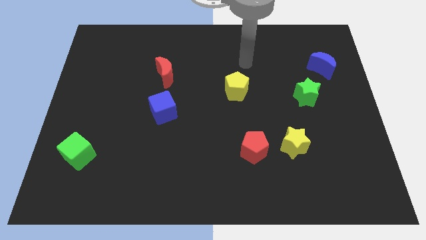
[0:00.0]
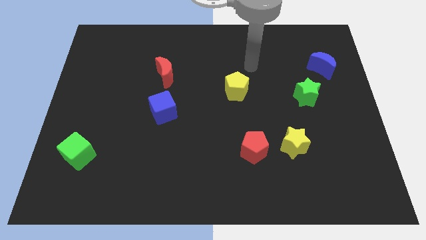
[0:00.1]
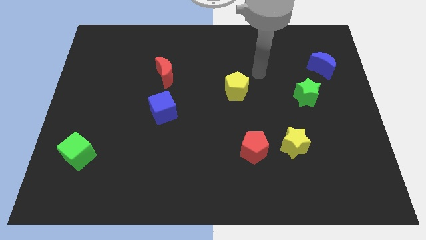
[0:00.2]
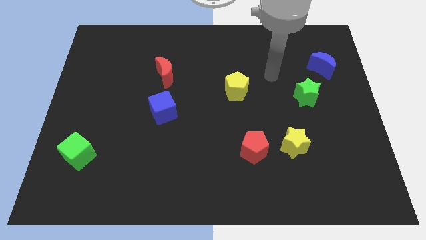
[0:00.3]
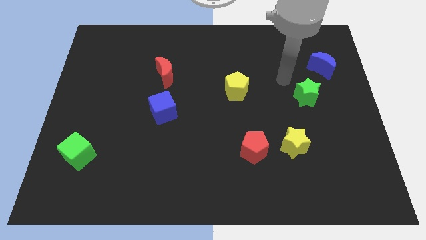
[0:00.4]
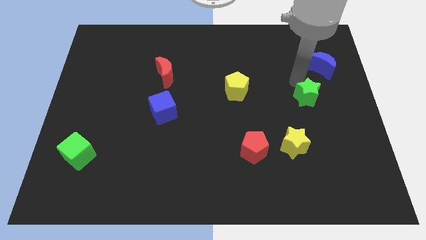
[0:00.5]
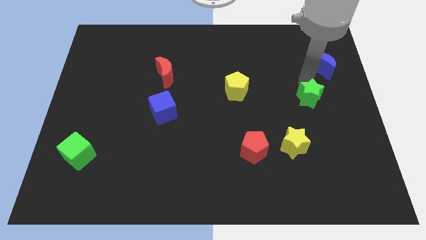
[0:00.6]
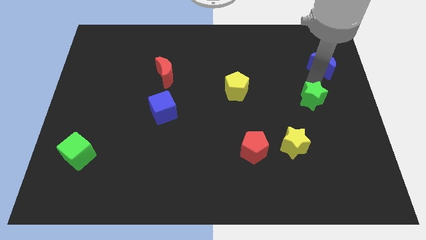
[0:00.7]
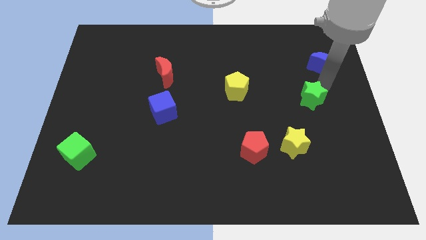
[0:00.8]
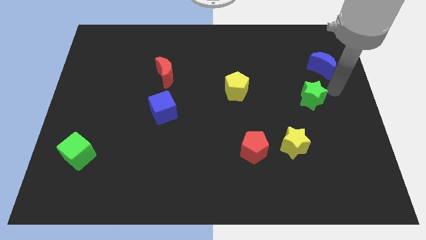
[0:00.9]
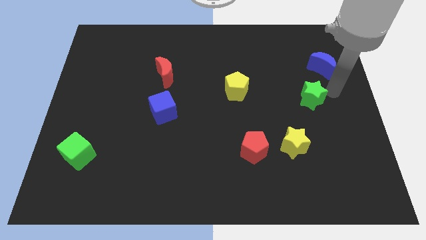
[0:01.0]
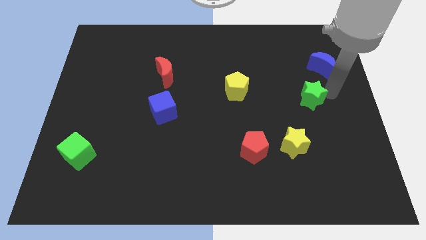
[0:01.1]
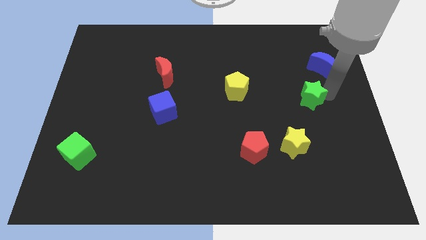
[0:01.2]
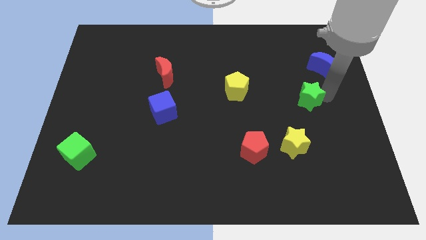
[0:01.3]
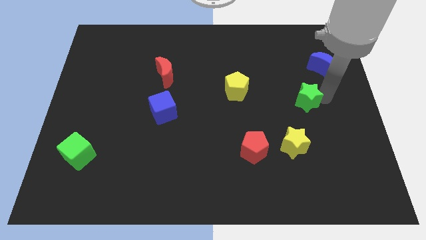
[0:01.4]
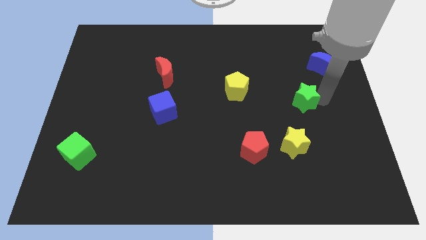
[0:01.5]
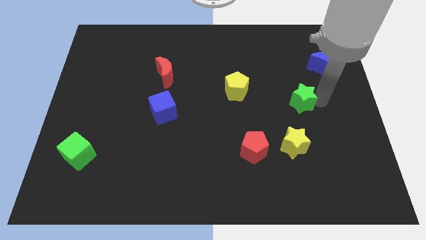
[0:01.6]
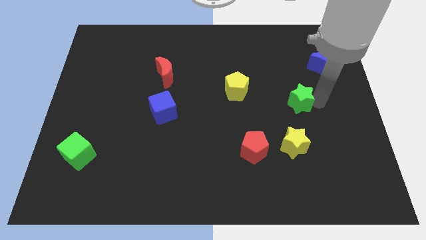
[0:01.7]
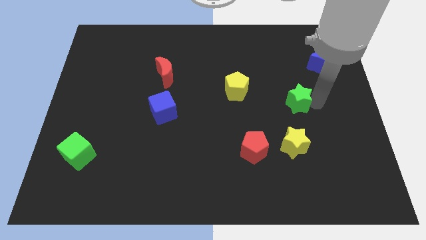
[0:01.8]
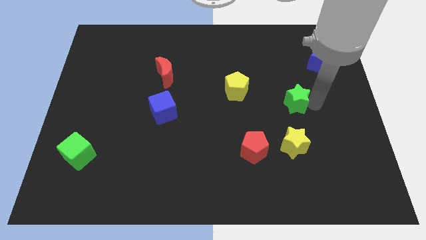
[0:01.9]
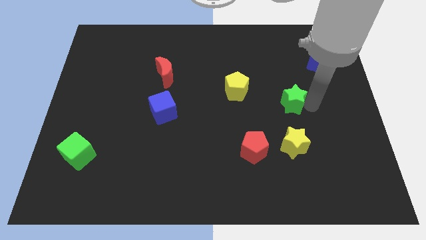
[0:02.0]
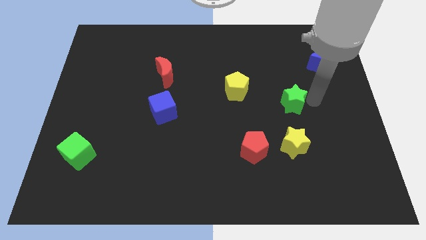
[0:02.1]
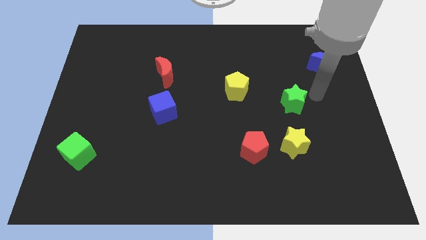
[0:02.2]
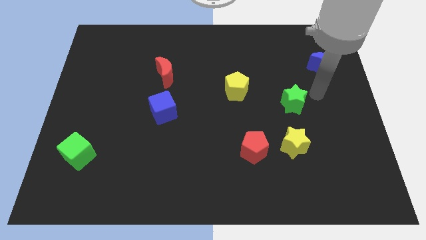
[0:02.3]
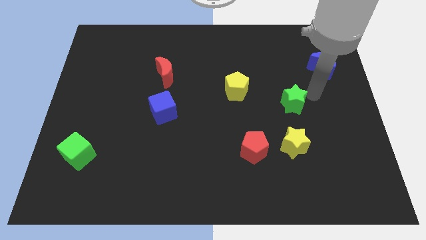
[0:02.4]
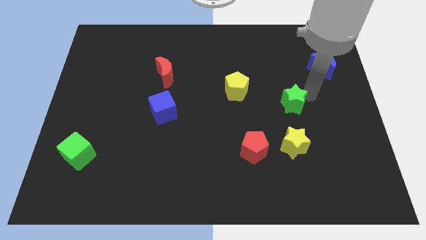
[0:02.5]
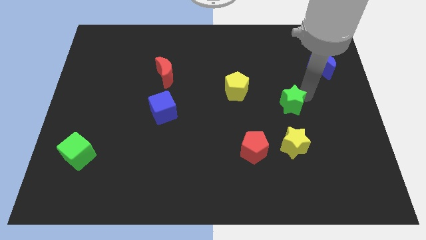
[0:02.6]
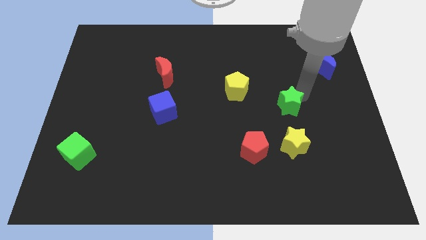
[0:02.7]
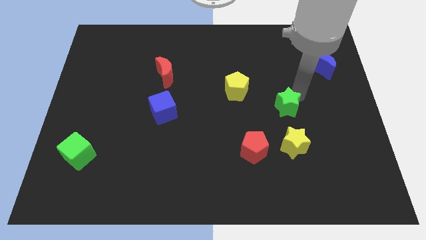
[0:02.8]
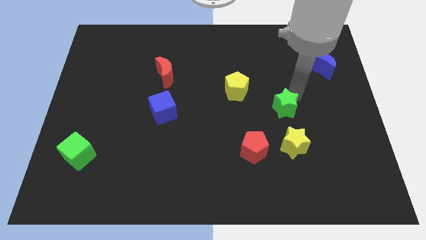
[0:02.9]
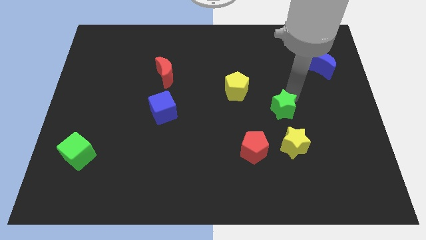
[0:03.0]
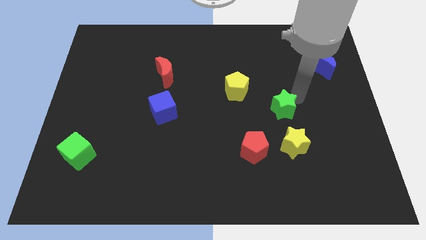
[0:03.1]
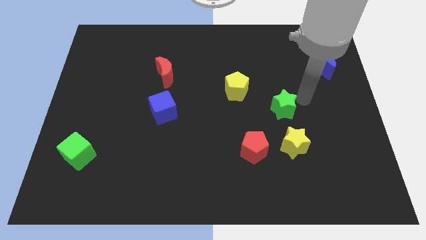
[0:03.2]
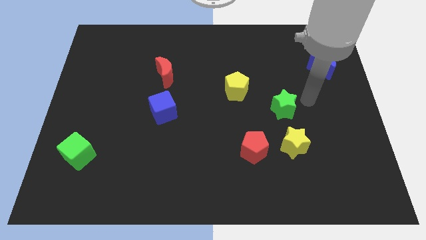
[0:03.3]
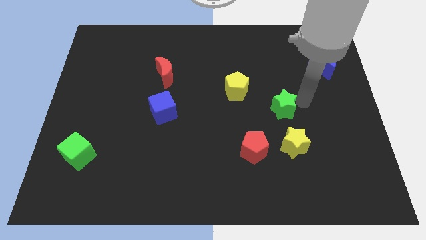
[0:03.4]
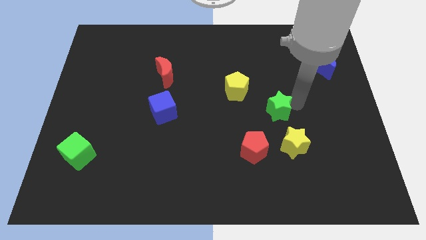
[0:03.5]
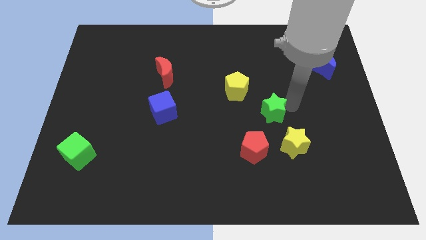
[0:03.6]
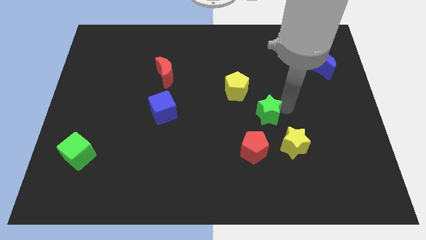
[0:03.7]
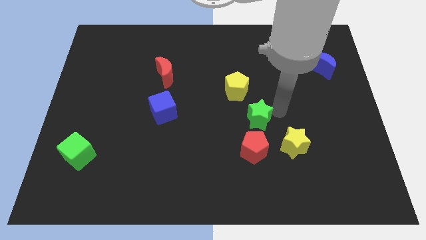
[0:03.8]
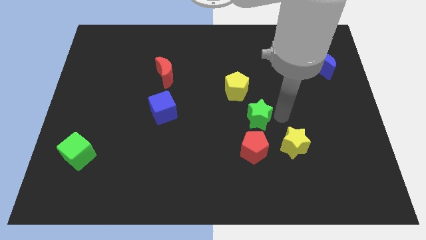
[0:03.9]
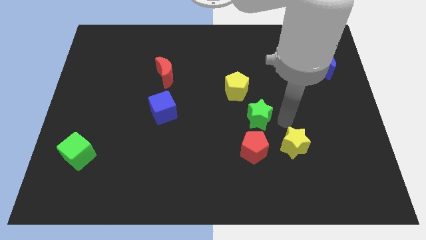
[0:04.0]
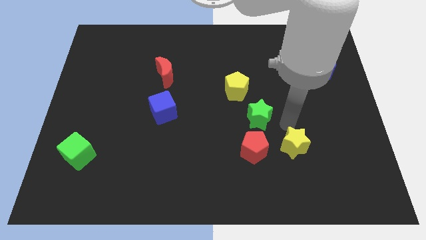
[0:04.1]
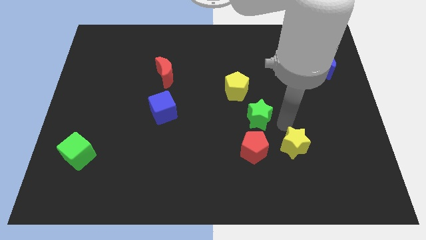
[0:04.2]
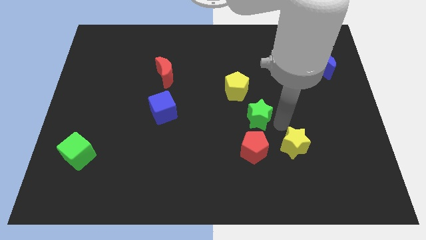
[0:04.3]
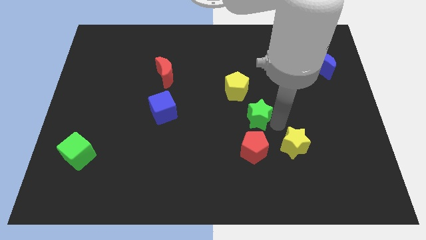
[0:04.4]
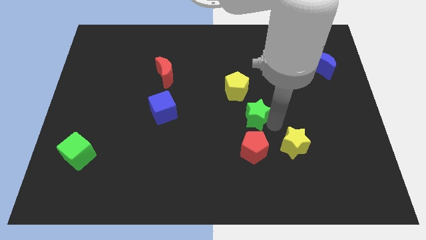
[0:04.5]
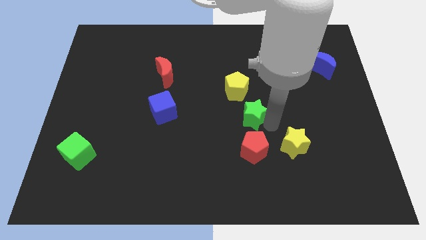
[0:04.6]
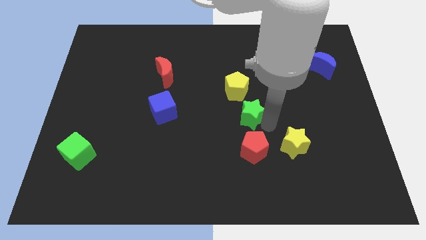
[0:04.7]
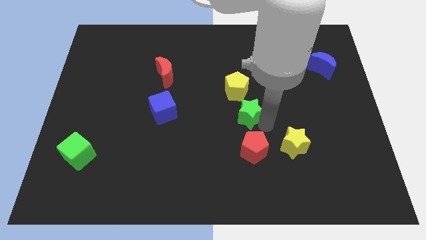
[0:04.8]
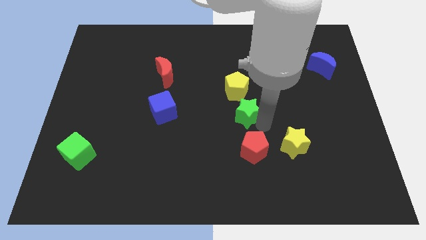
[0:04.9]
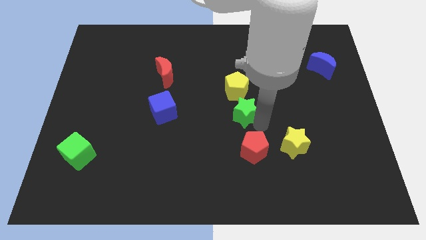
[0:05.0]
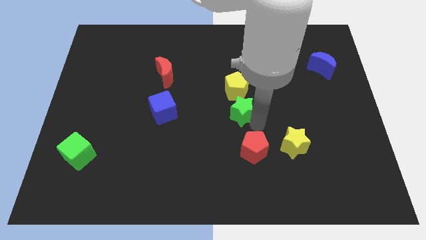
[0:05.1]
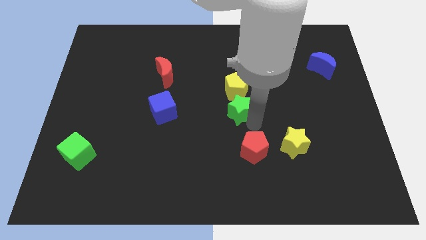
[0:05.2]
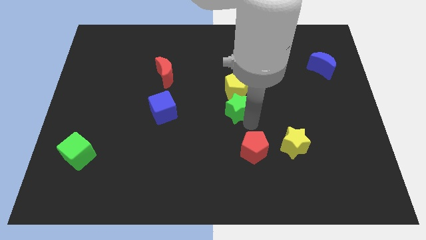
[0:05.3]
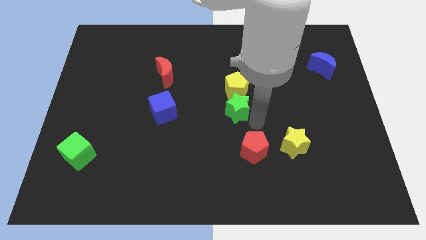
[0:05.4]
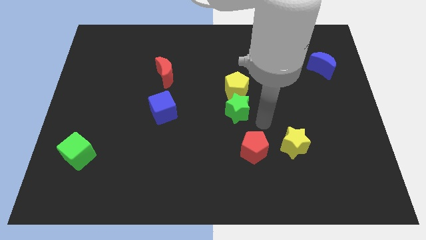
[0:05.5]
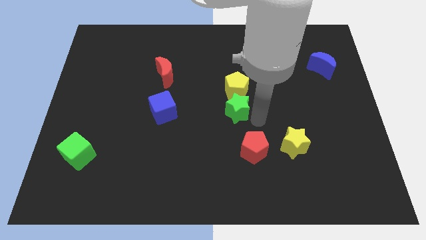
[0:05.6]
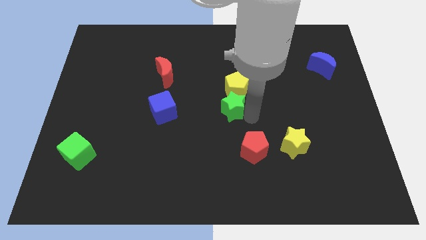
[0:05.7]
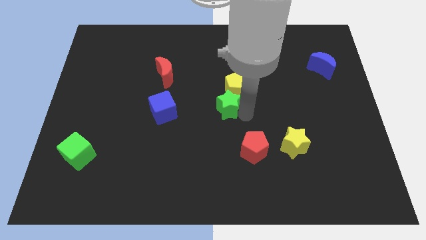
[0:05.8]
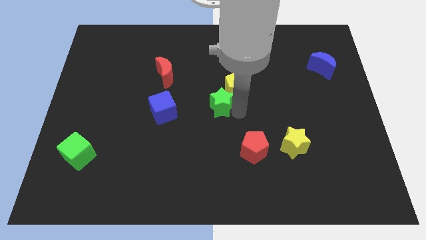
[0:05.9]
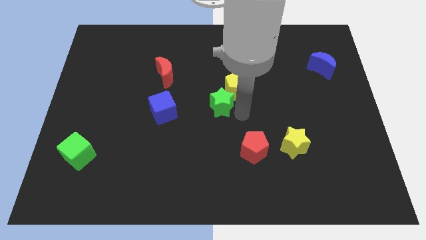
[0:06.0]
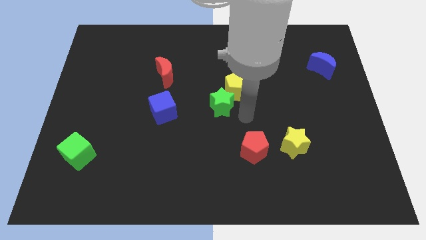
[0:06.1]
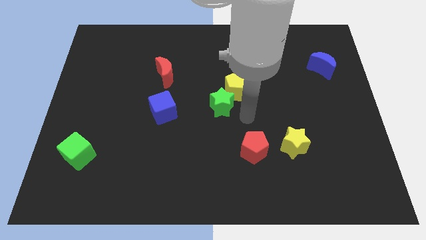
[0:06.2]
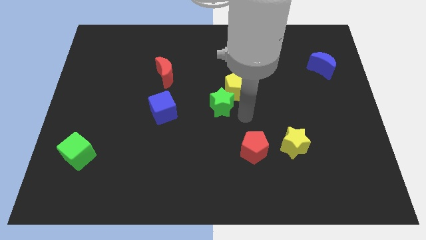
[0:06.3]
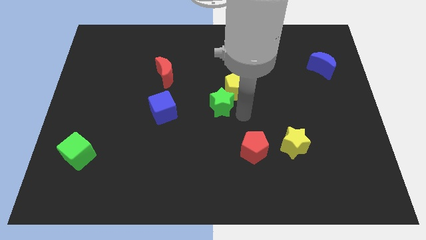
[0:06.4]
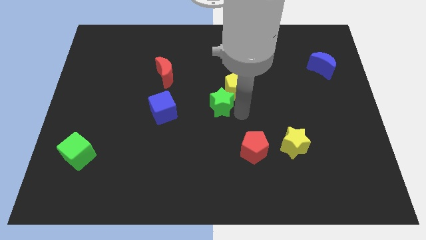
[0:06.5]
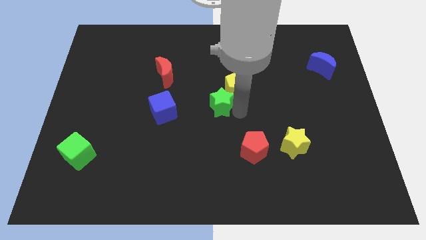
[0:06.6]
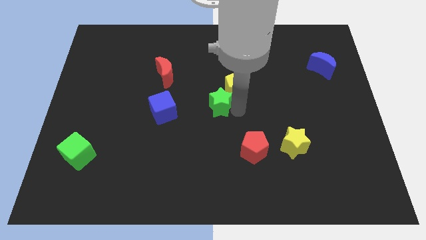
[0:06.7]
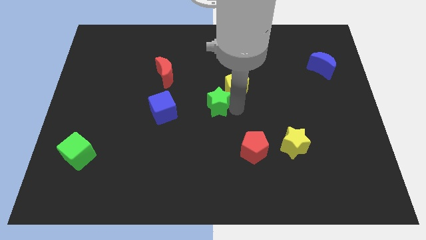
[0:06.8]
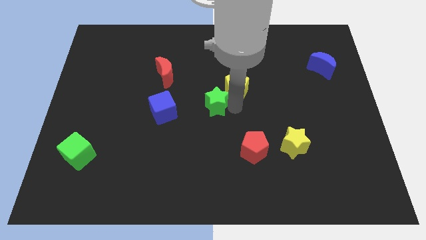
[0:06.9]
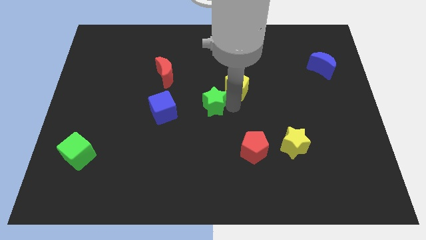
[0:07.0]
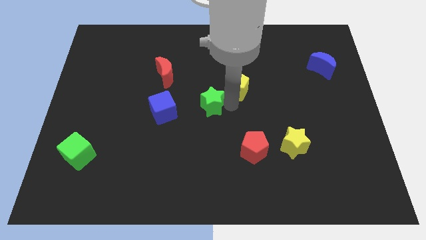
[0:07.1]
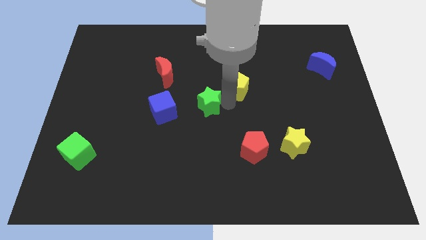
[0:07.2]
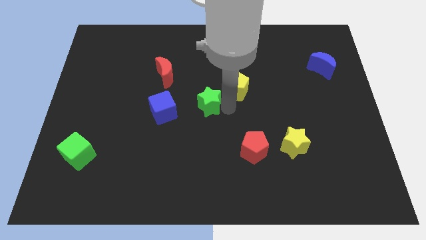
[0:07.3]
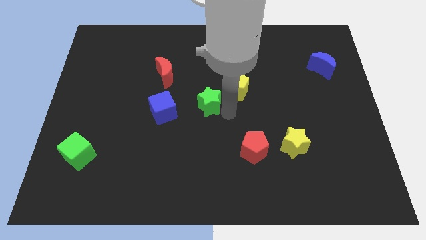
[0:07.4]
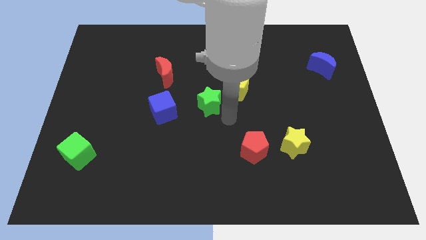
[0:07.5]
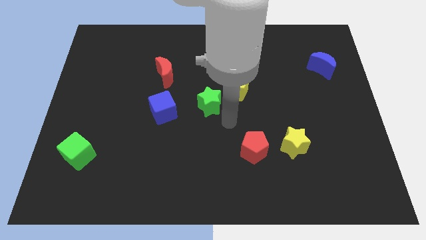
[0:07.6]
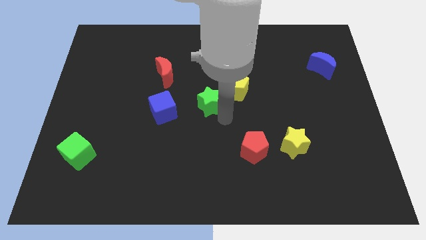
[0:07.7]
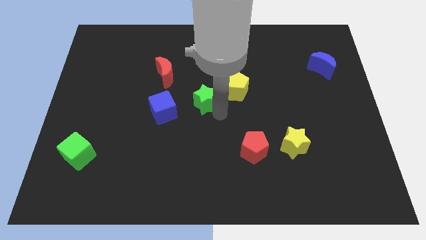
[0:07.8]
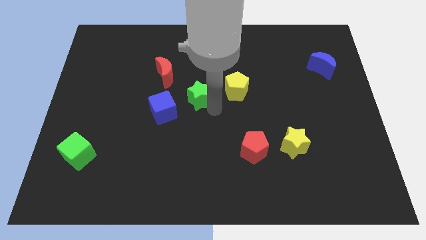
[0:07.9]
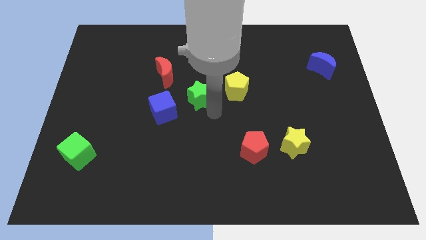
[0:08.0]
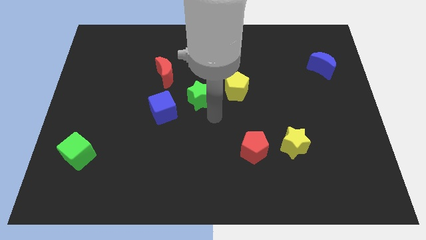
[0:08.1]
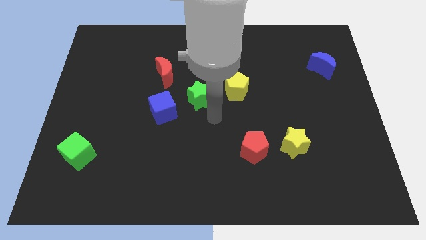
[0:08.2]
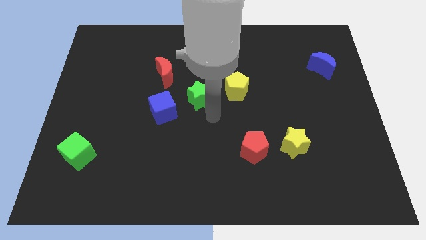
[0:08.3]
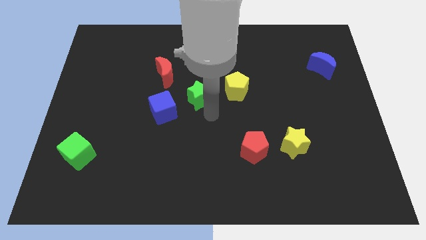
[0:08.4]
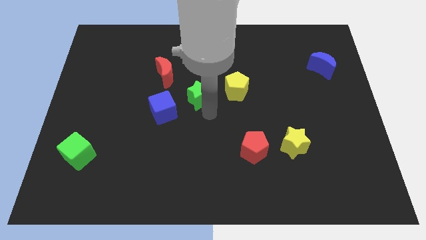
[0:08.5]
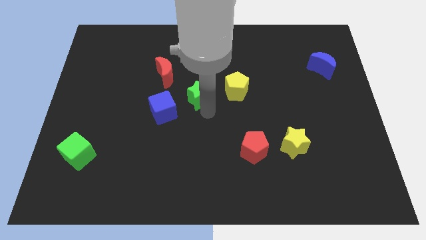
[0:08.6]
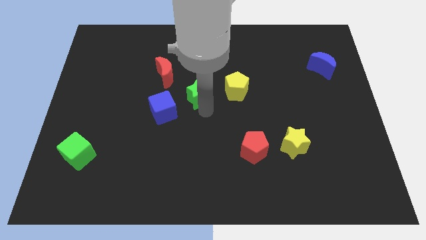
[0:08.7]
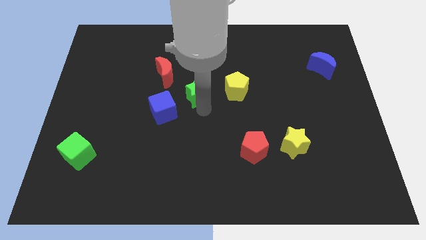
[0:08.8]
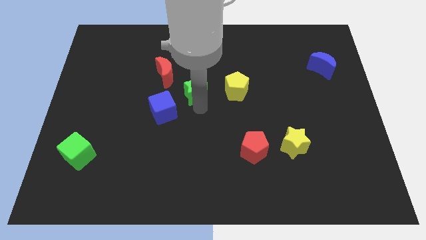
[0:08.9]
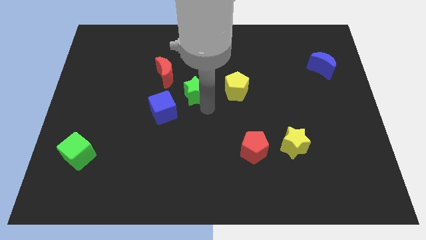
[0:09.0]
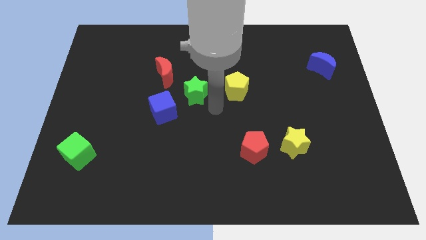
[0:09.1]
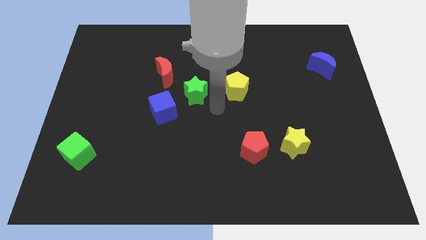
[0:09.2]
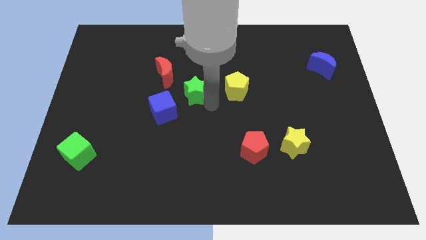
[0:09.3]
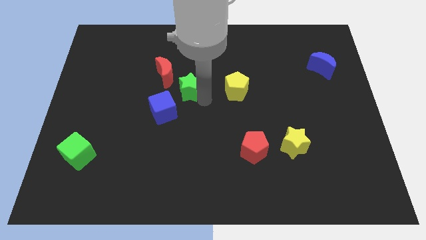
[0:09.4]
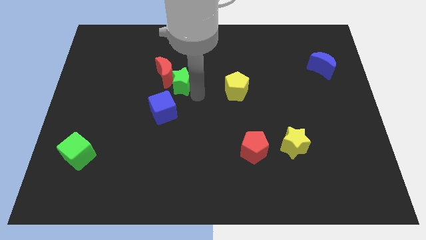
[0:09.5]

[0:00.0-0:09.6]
put the green star next to the red moon
